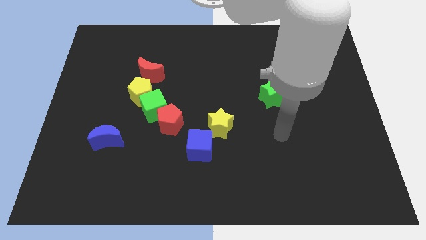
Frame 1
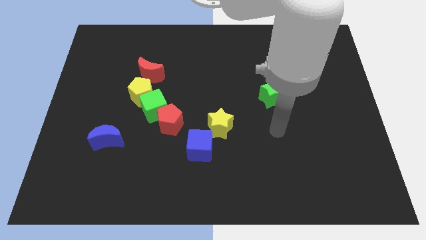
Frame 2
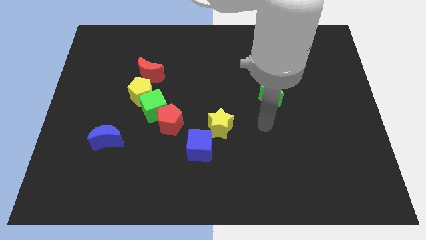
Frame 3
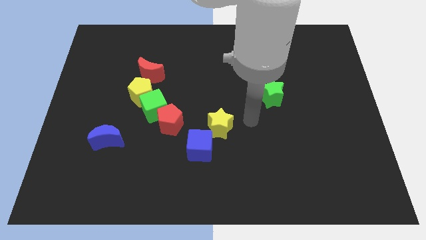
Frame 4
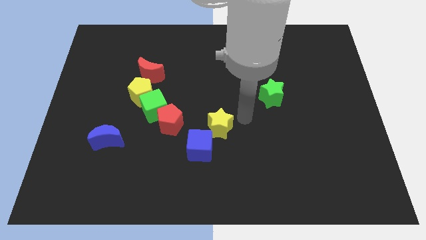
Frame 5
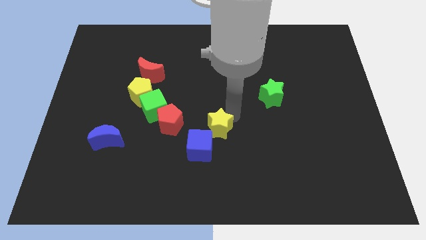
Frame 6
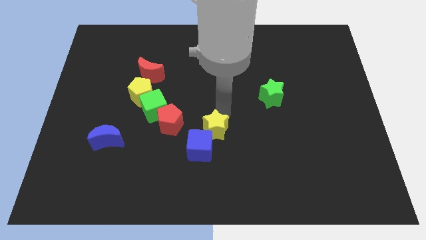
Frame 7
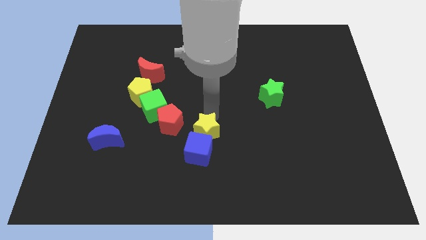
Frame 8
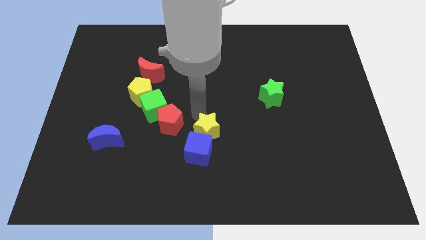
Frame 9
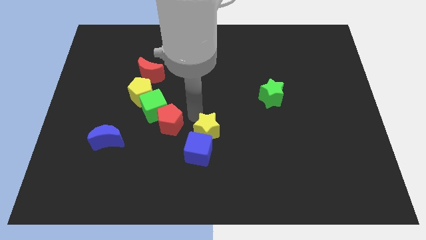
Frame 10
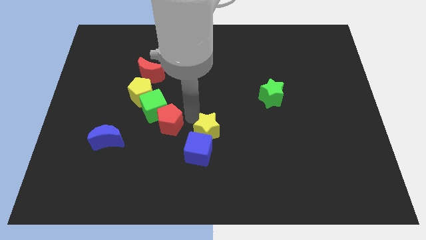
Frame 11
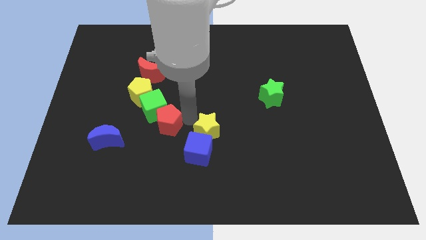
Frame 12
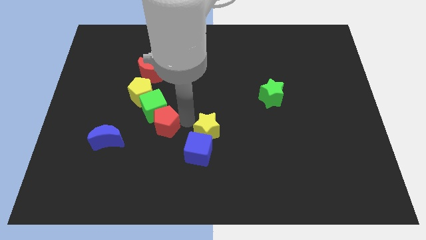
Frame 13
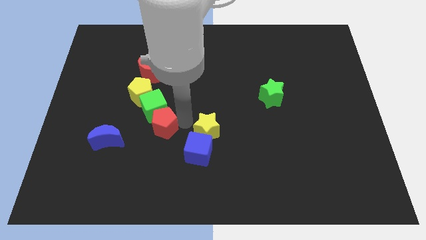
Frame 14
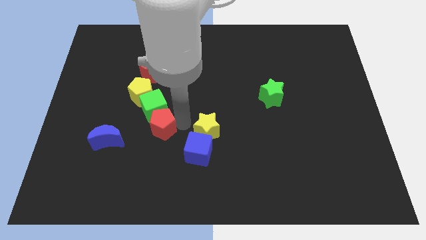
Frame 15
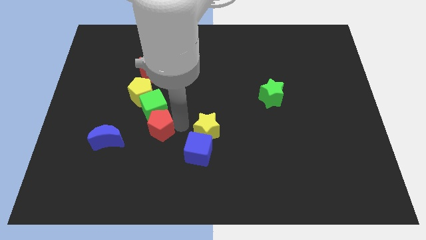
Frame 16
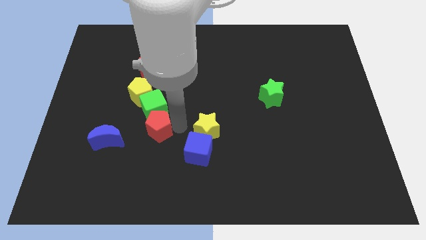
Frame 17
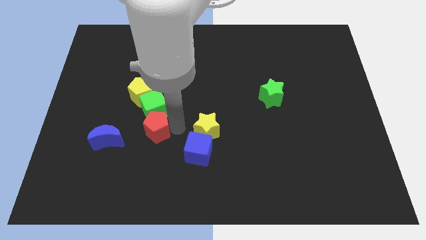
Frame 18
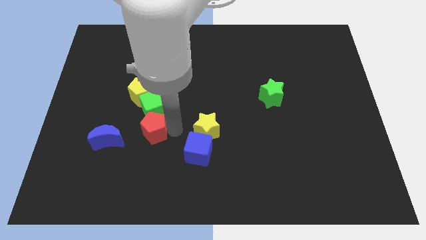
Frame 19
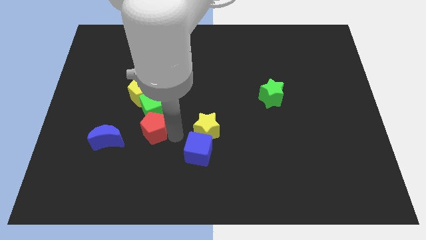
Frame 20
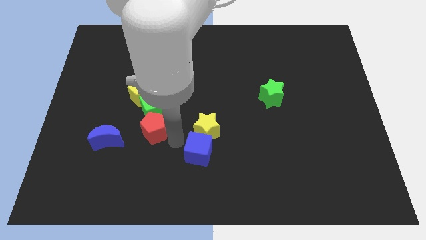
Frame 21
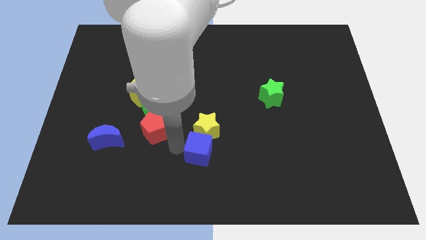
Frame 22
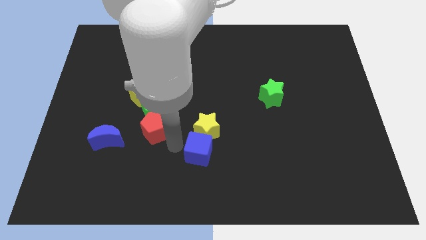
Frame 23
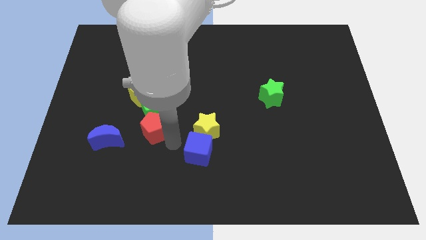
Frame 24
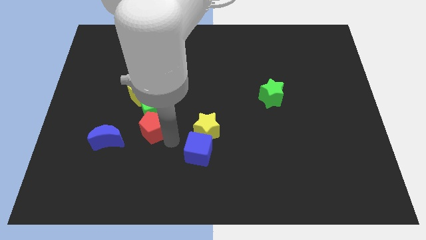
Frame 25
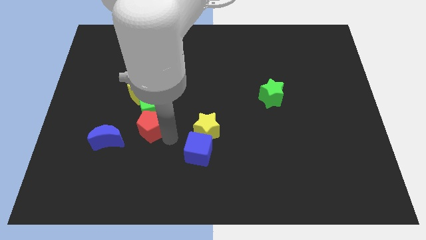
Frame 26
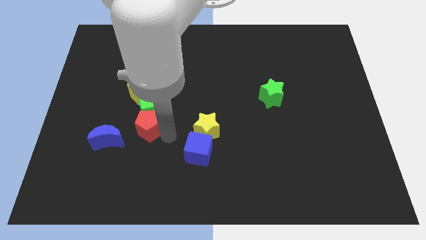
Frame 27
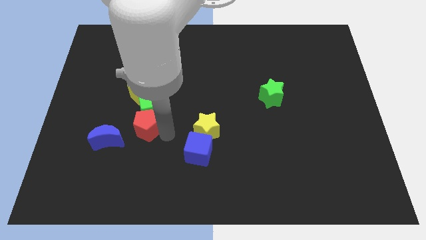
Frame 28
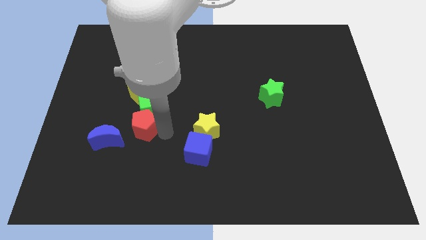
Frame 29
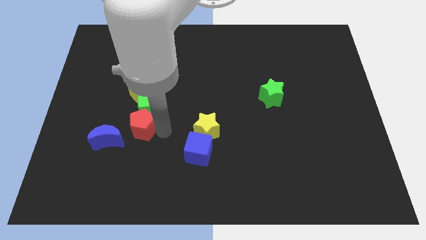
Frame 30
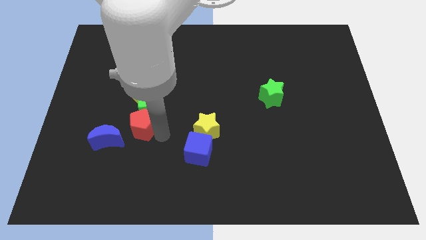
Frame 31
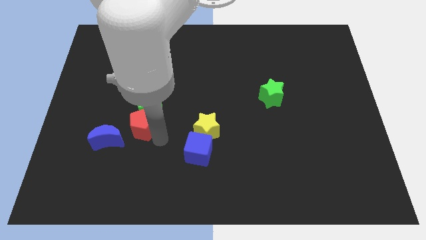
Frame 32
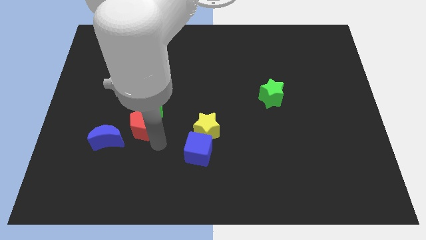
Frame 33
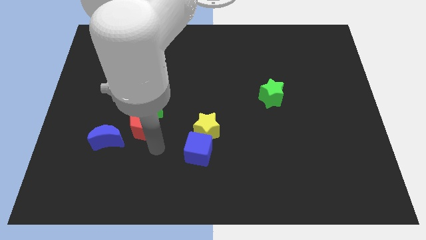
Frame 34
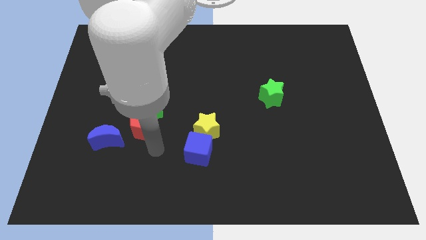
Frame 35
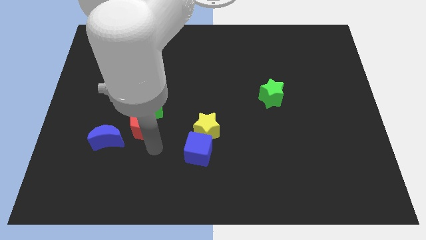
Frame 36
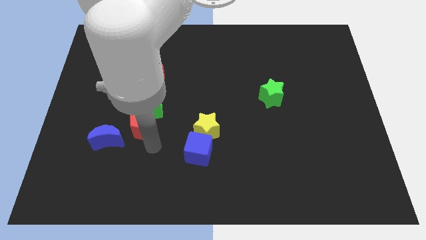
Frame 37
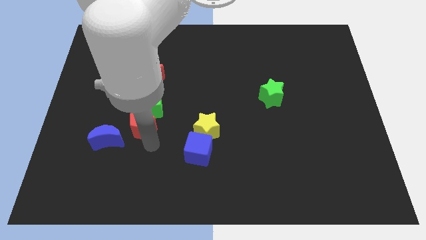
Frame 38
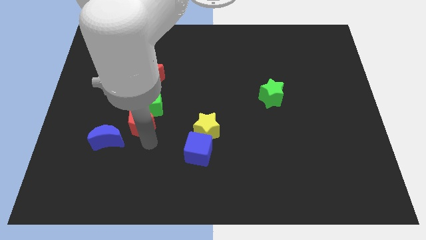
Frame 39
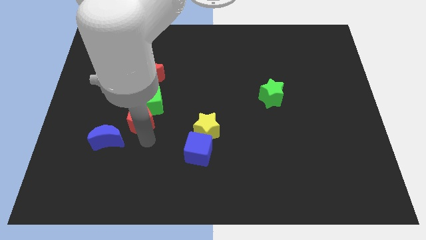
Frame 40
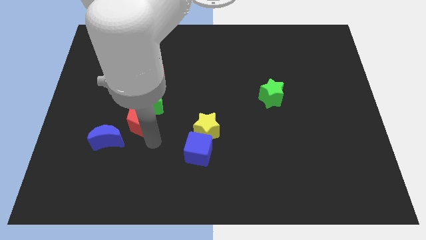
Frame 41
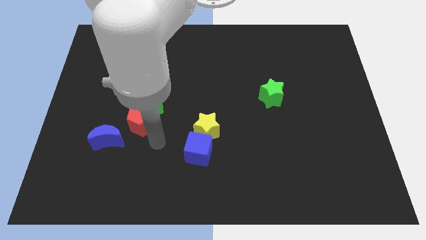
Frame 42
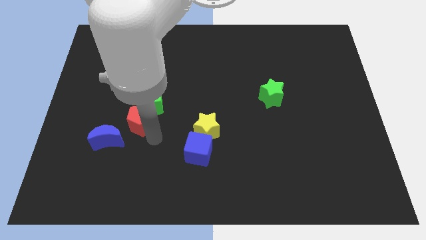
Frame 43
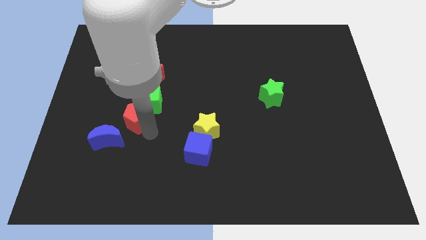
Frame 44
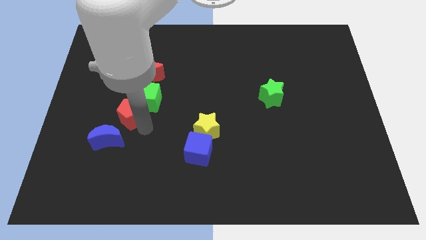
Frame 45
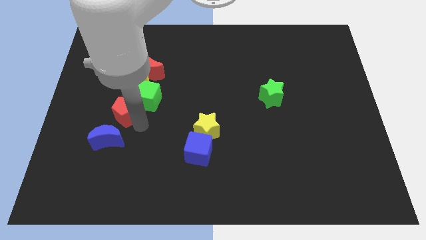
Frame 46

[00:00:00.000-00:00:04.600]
move the red pentagon upwards and to the left a little bit

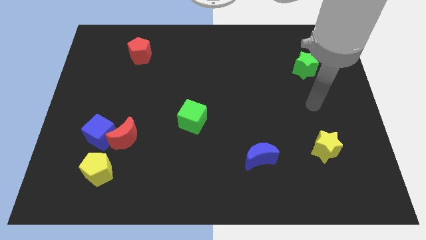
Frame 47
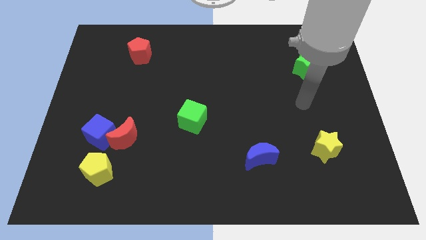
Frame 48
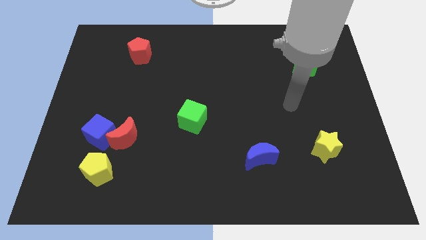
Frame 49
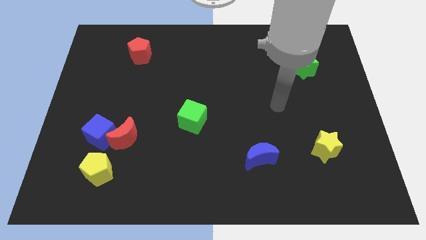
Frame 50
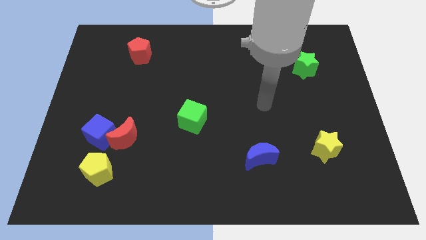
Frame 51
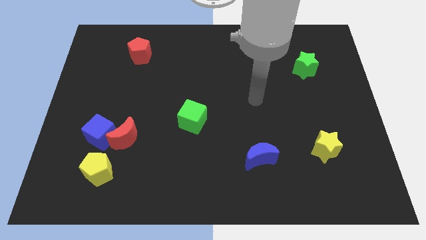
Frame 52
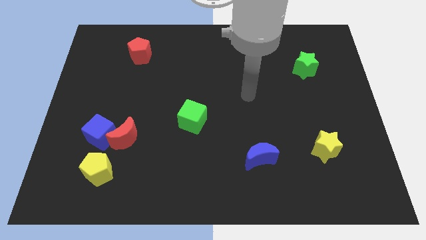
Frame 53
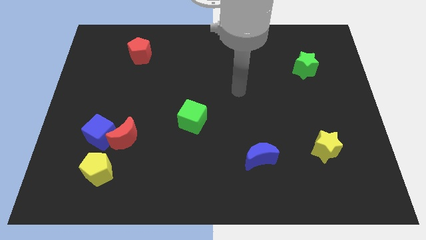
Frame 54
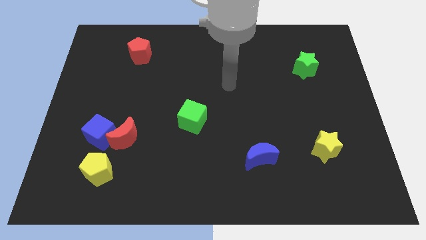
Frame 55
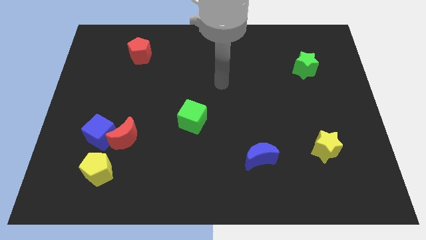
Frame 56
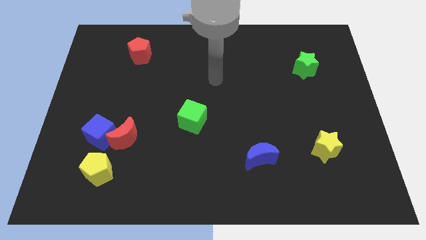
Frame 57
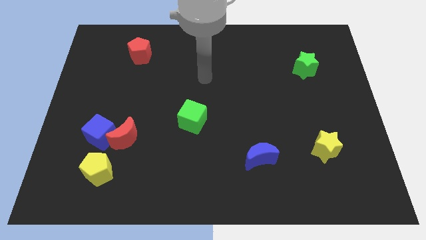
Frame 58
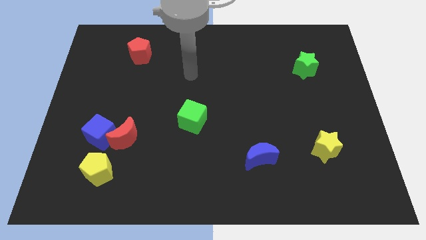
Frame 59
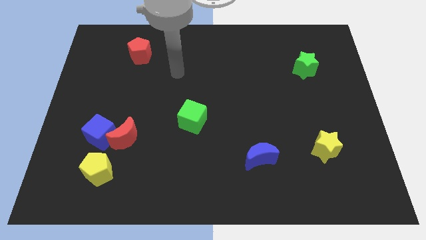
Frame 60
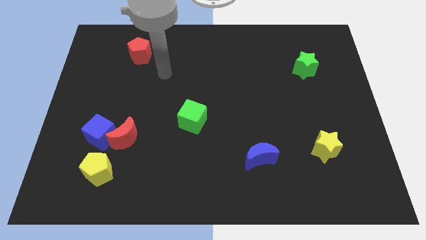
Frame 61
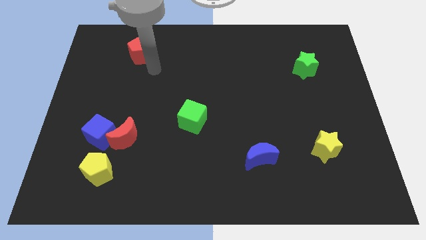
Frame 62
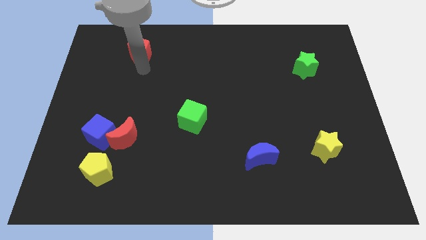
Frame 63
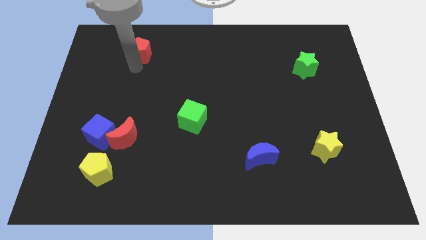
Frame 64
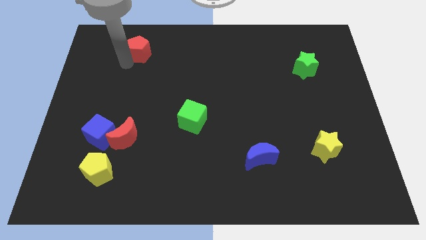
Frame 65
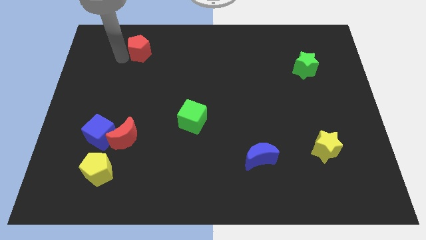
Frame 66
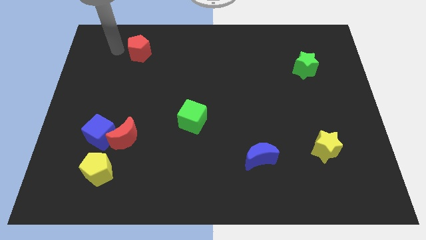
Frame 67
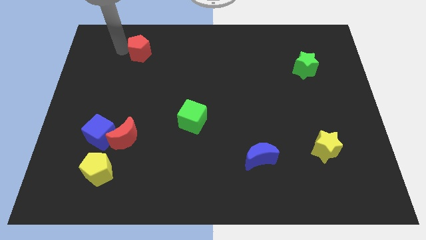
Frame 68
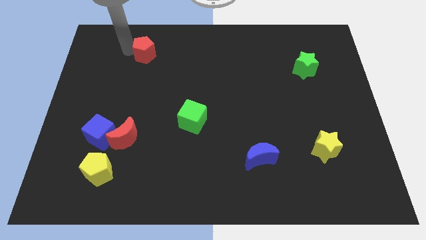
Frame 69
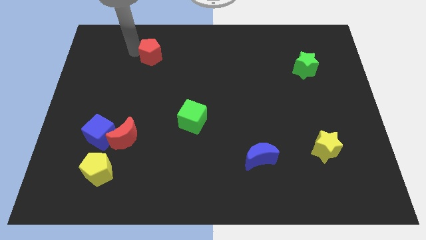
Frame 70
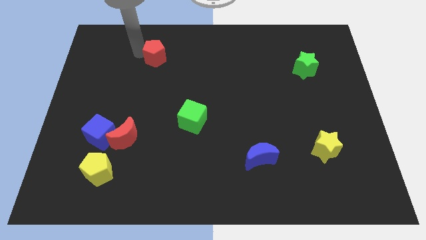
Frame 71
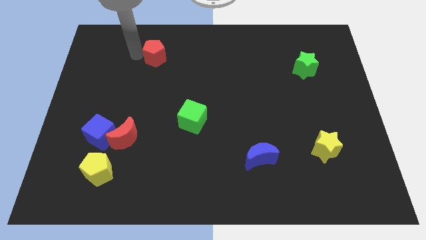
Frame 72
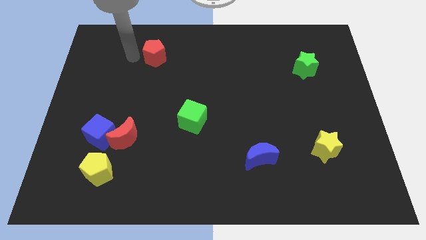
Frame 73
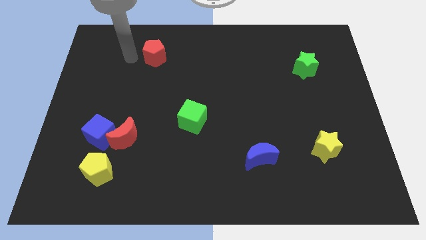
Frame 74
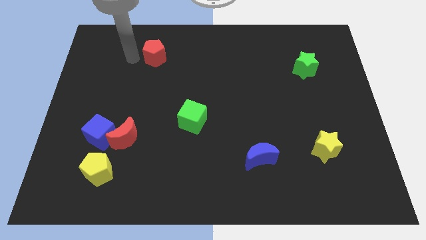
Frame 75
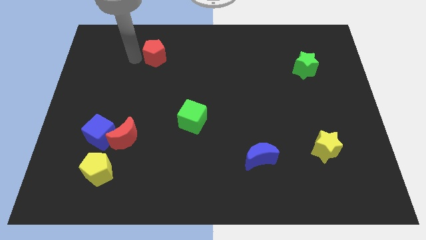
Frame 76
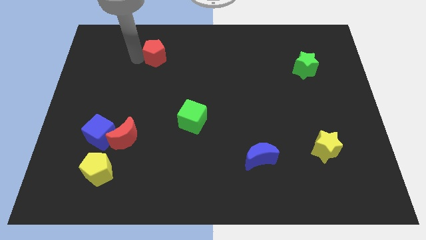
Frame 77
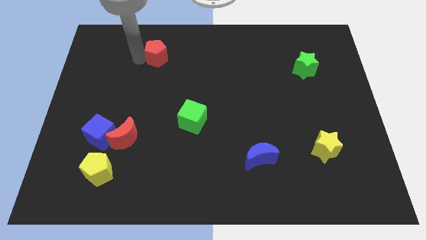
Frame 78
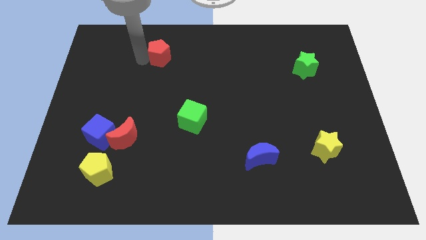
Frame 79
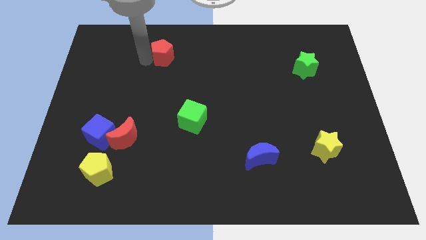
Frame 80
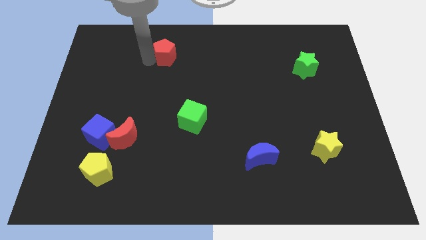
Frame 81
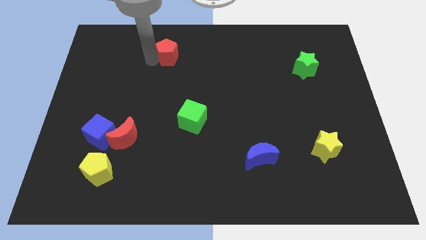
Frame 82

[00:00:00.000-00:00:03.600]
move the red pentagon to the right slightly
